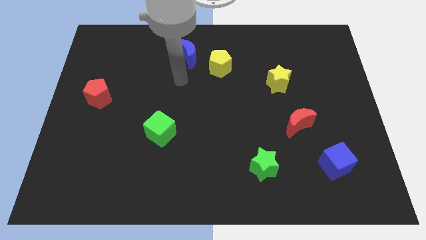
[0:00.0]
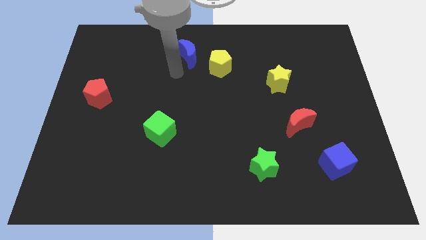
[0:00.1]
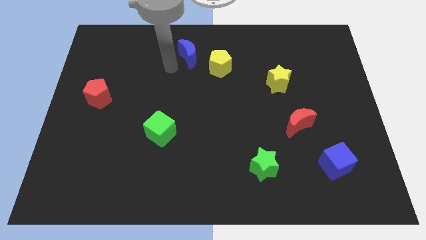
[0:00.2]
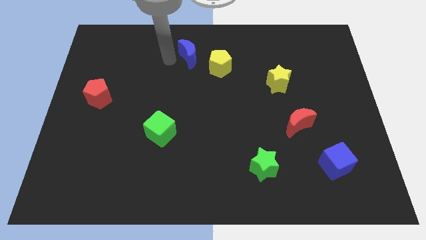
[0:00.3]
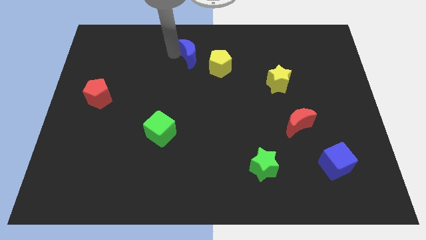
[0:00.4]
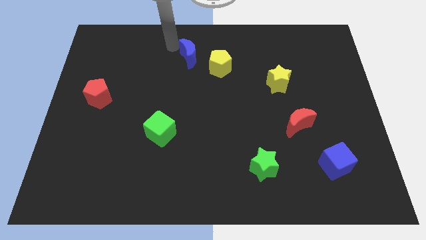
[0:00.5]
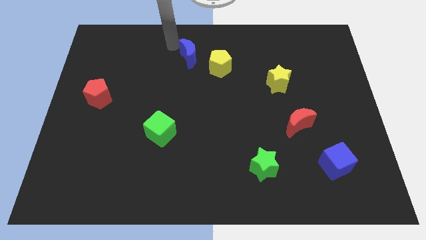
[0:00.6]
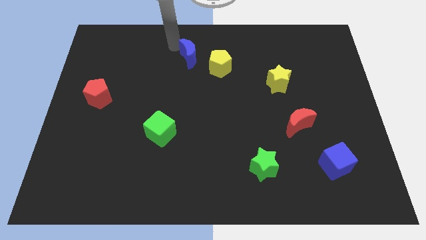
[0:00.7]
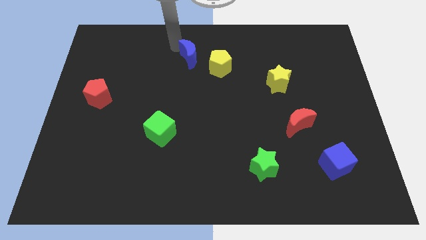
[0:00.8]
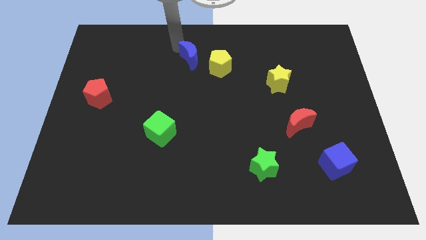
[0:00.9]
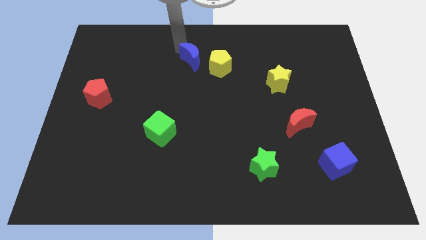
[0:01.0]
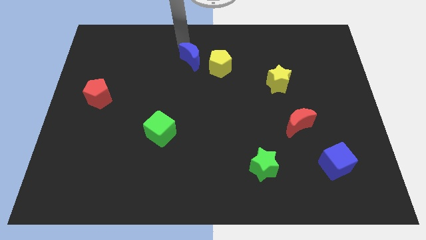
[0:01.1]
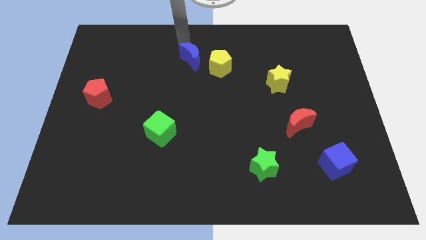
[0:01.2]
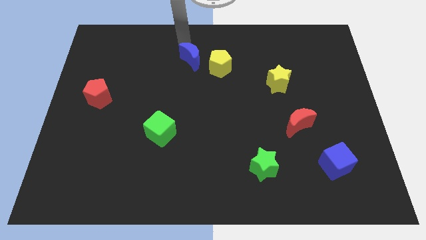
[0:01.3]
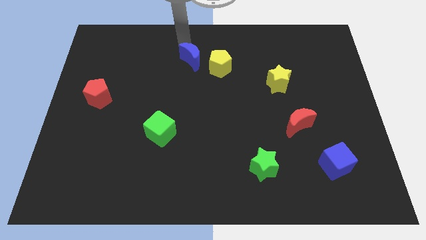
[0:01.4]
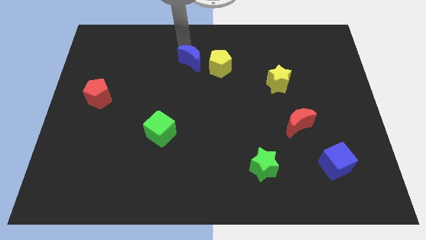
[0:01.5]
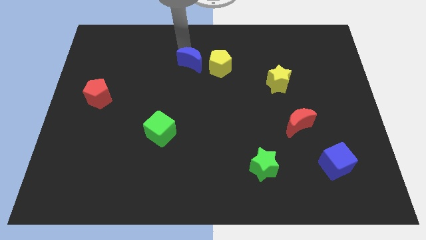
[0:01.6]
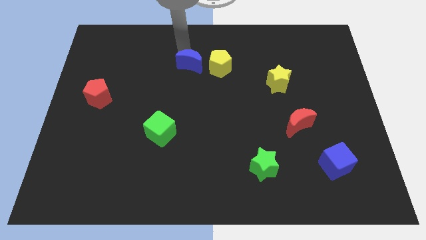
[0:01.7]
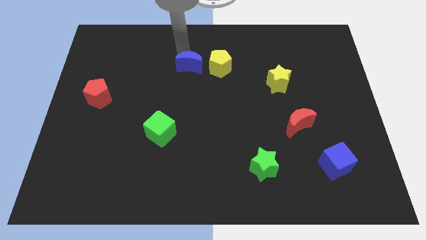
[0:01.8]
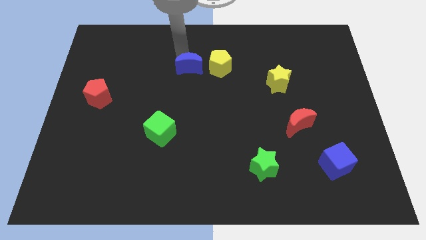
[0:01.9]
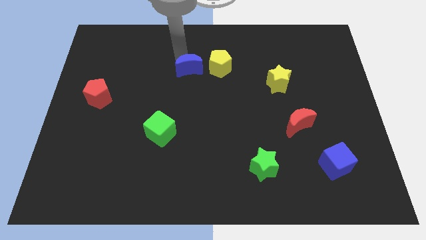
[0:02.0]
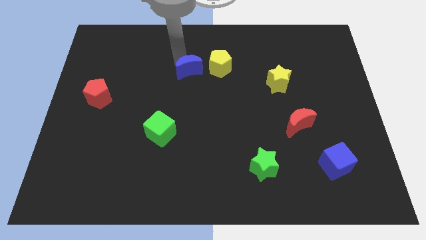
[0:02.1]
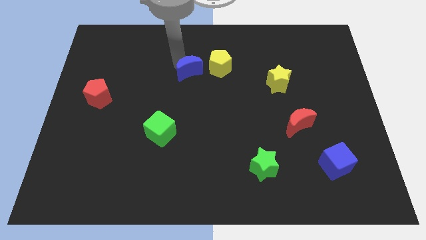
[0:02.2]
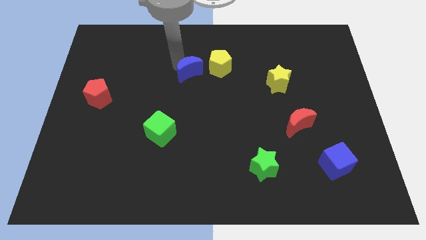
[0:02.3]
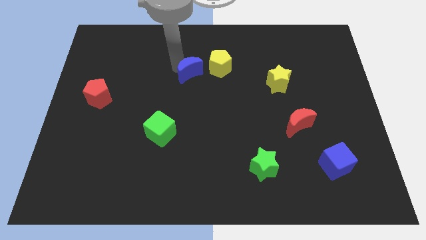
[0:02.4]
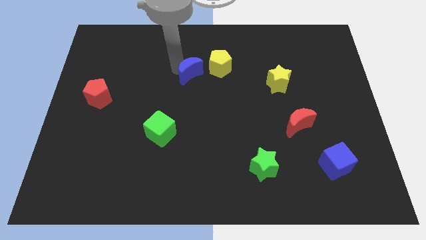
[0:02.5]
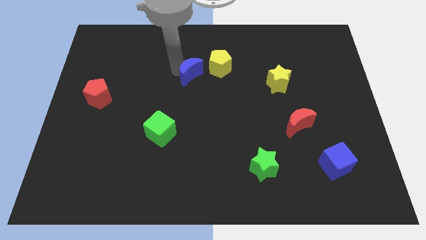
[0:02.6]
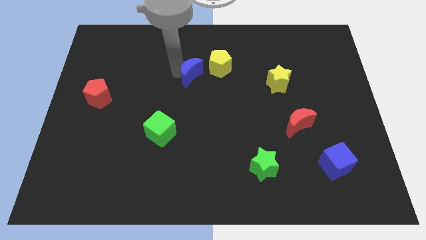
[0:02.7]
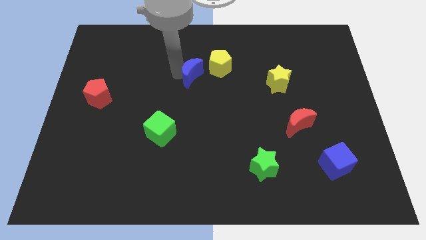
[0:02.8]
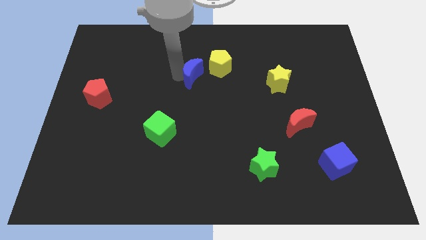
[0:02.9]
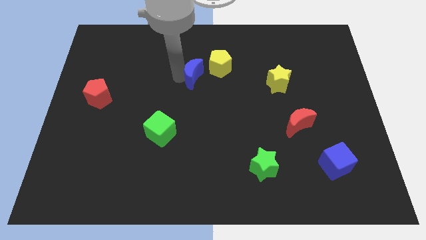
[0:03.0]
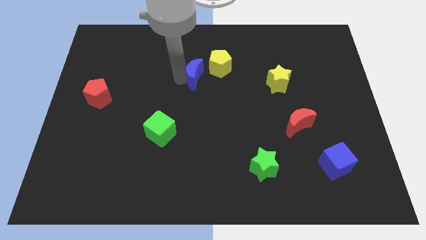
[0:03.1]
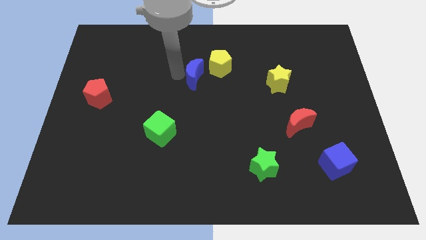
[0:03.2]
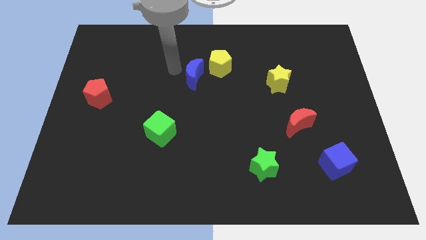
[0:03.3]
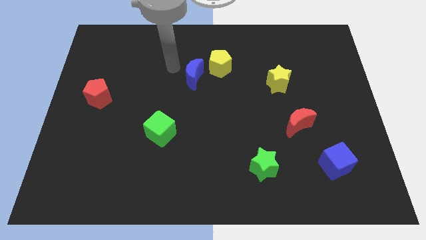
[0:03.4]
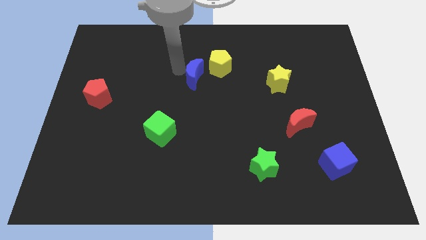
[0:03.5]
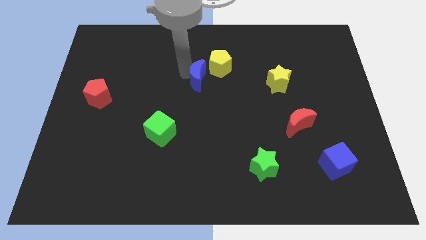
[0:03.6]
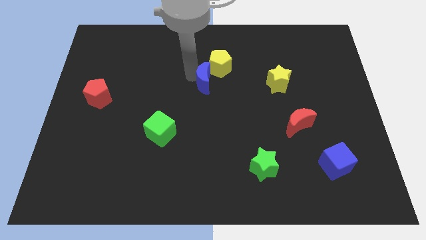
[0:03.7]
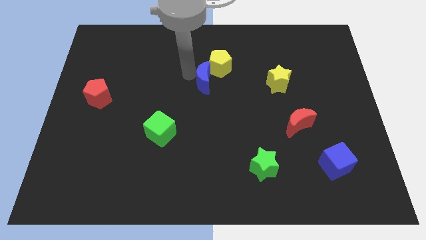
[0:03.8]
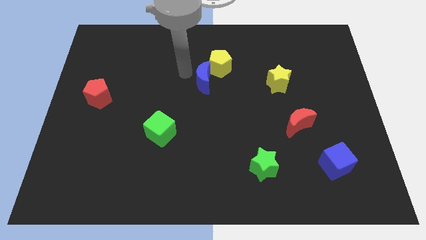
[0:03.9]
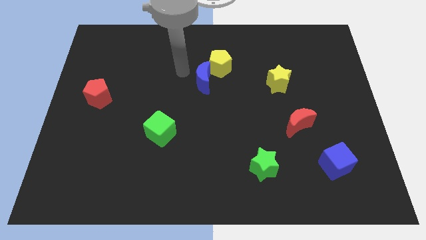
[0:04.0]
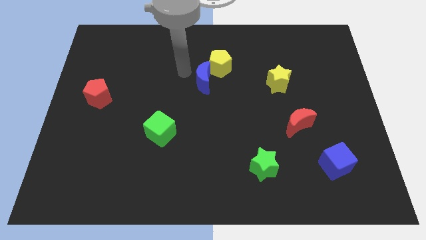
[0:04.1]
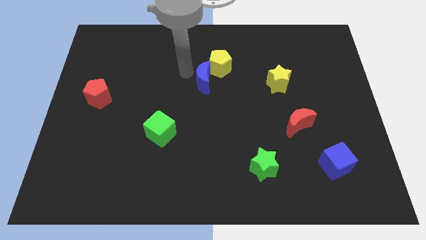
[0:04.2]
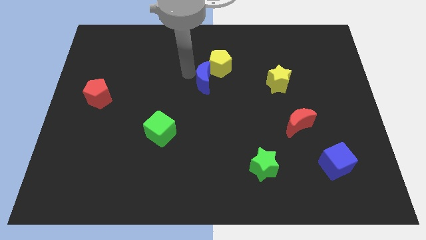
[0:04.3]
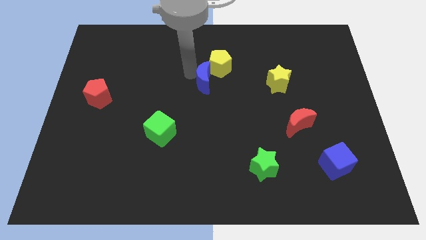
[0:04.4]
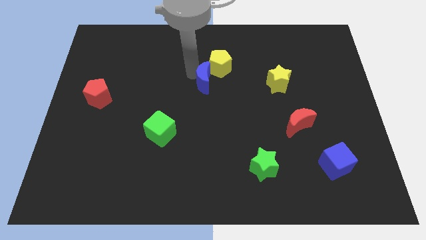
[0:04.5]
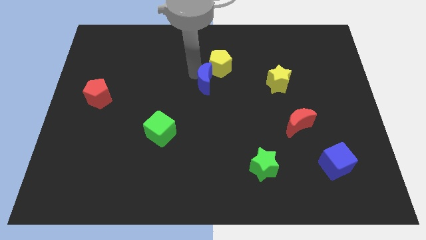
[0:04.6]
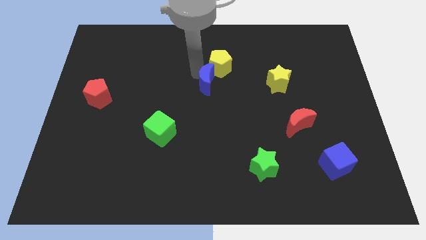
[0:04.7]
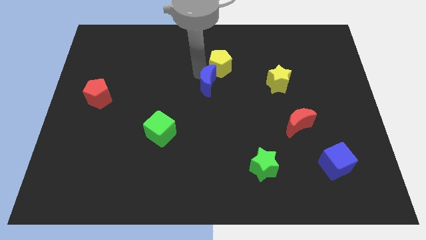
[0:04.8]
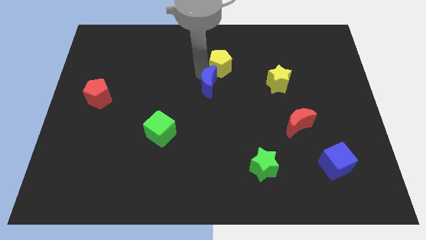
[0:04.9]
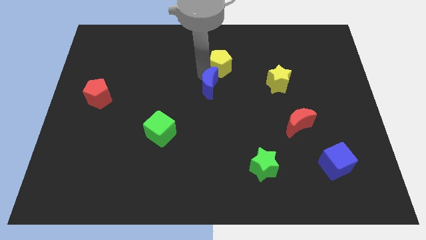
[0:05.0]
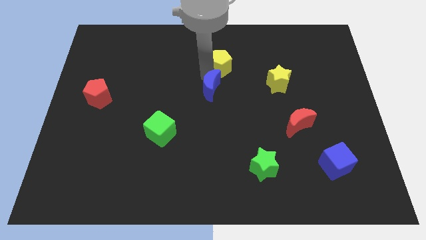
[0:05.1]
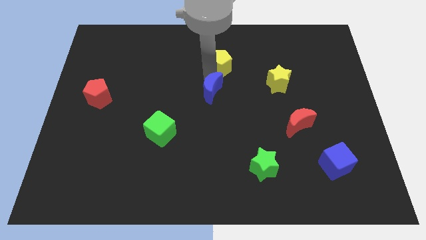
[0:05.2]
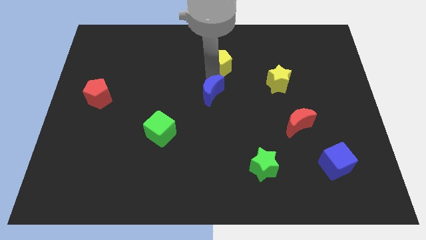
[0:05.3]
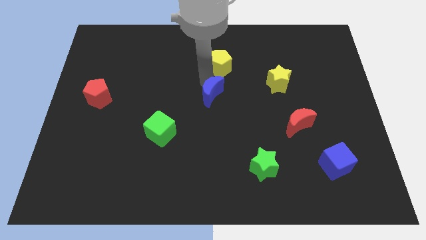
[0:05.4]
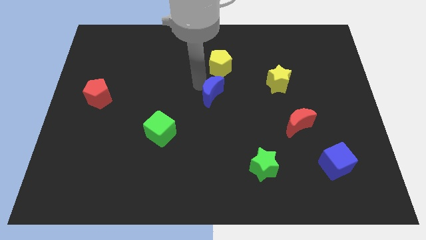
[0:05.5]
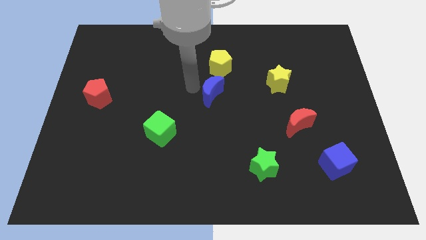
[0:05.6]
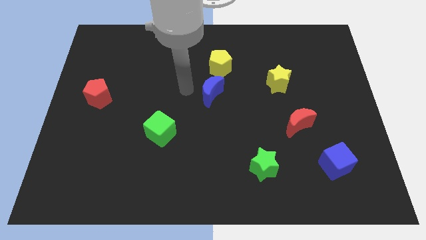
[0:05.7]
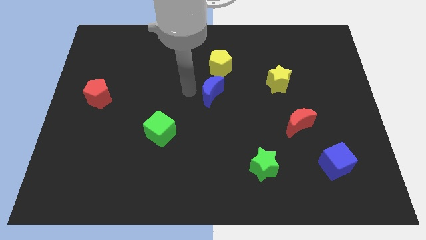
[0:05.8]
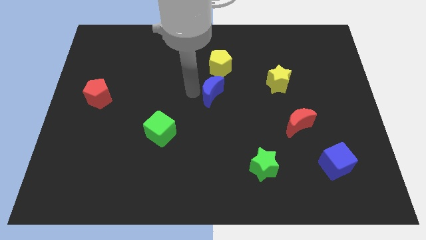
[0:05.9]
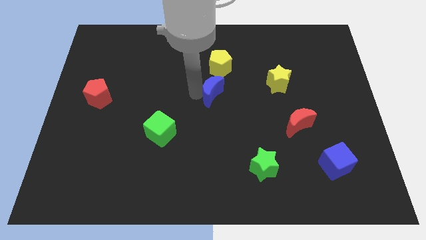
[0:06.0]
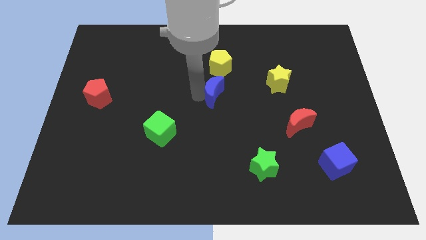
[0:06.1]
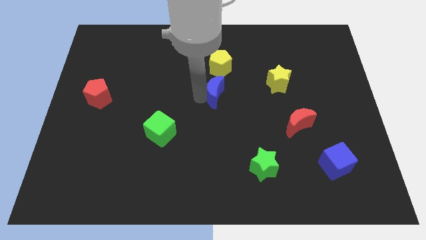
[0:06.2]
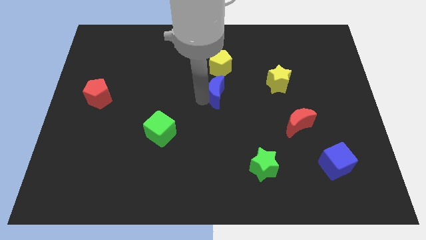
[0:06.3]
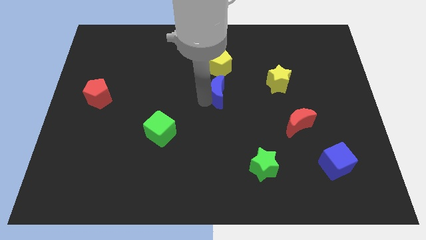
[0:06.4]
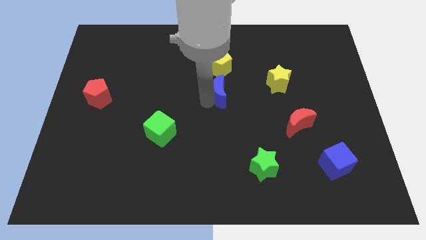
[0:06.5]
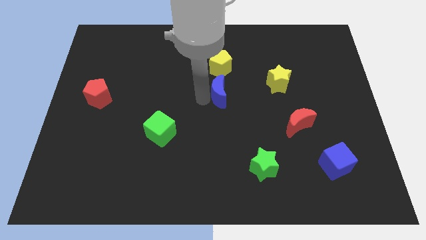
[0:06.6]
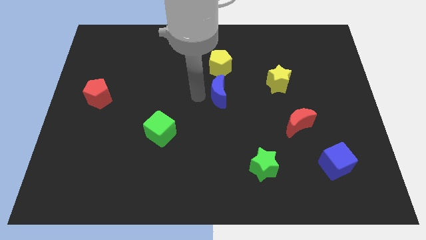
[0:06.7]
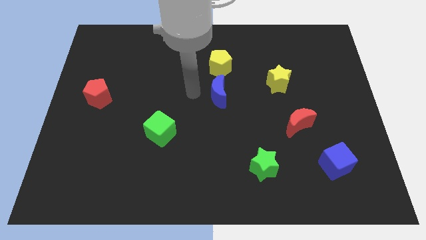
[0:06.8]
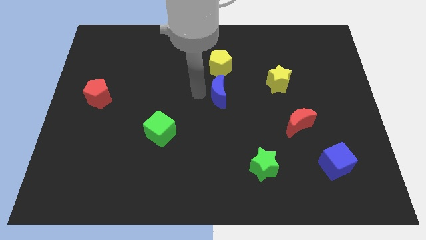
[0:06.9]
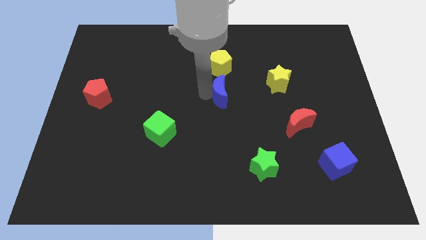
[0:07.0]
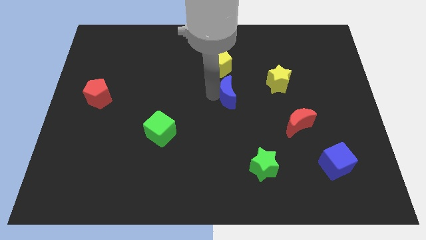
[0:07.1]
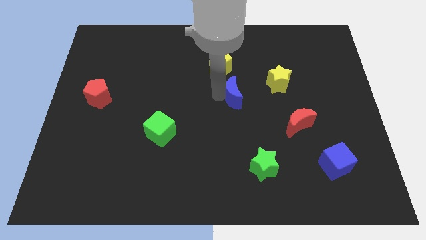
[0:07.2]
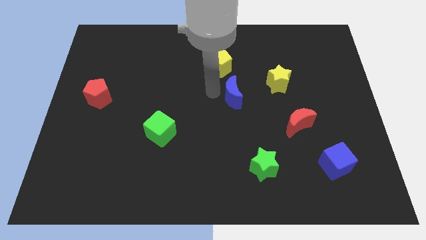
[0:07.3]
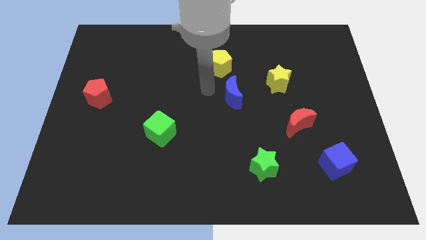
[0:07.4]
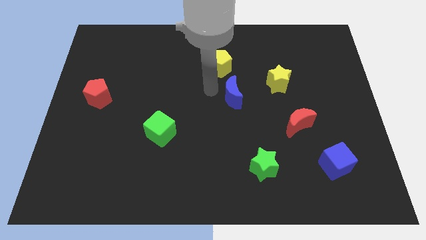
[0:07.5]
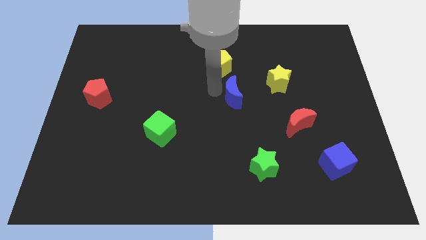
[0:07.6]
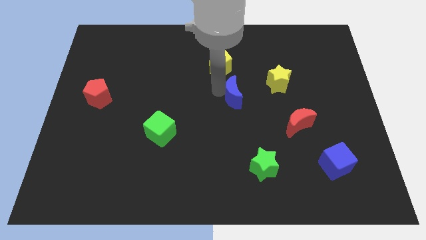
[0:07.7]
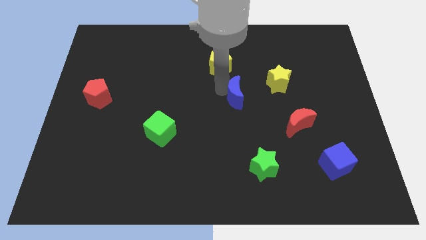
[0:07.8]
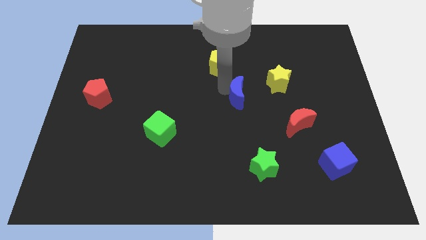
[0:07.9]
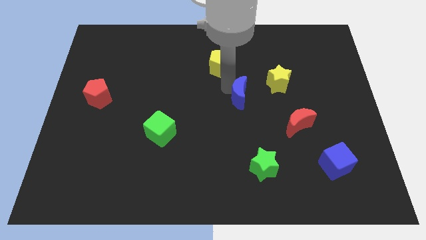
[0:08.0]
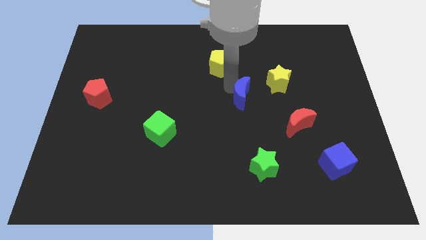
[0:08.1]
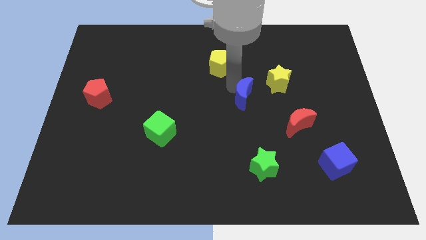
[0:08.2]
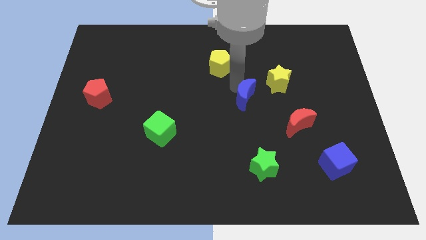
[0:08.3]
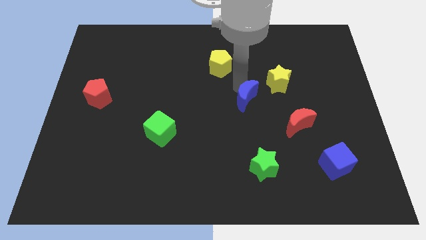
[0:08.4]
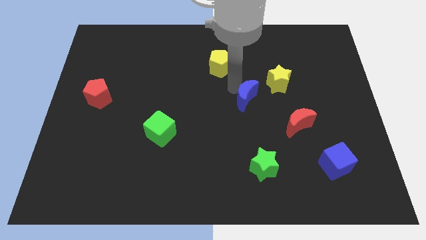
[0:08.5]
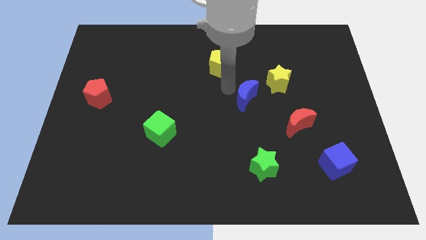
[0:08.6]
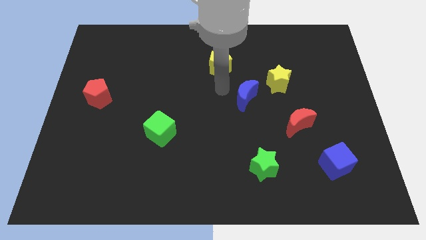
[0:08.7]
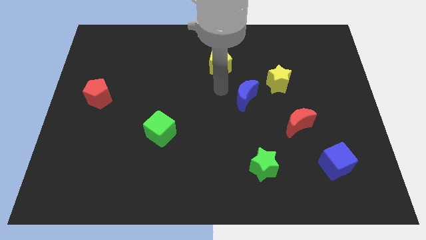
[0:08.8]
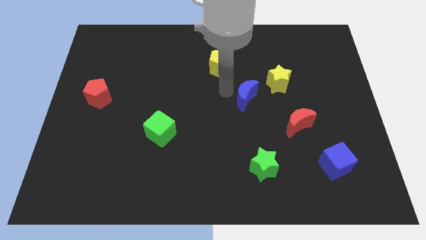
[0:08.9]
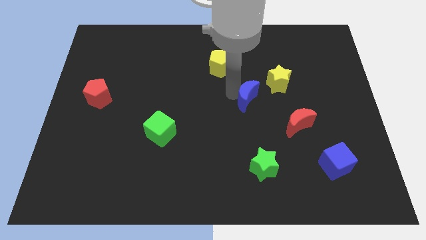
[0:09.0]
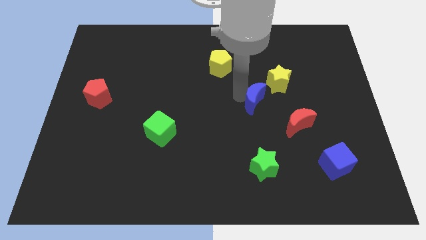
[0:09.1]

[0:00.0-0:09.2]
move the blue moon to the top left of the red moon
